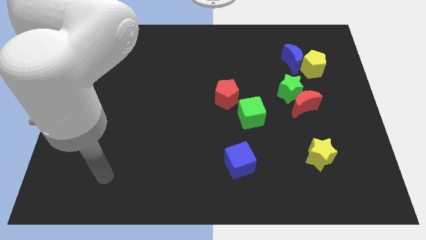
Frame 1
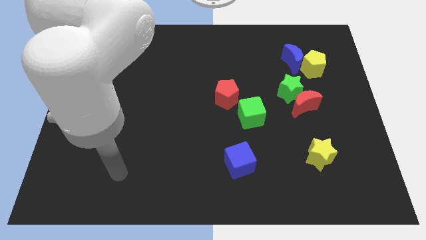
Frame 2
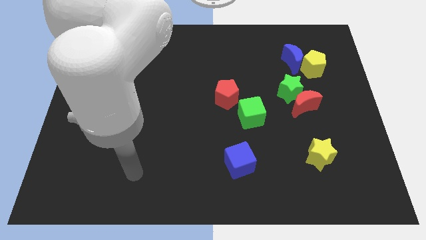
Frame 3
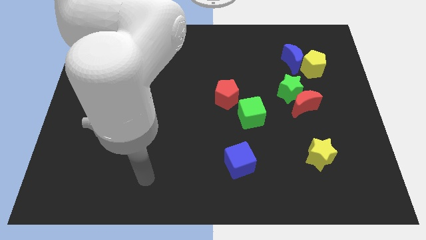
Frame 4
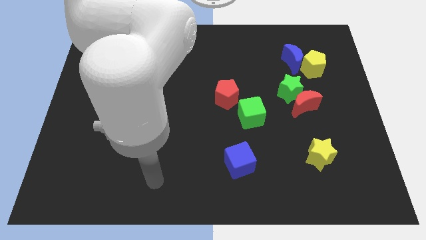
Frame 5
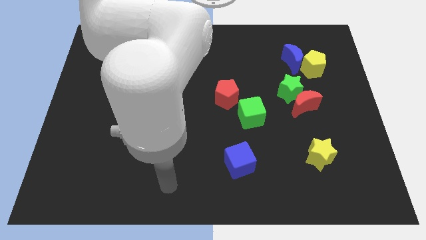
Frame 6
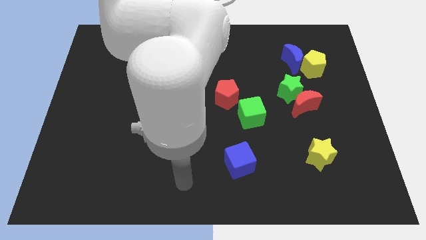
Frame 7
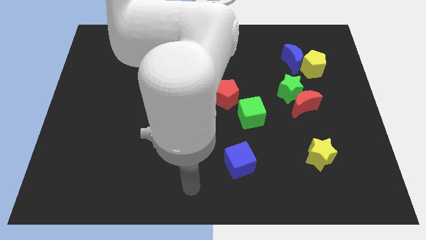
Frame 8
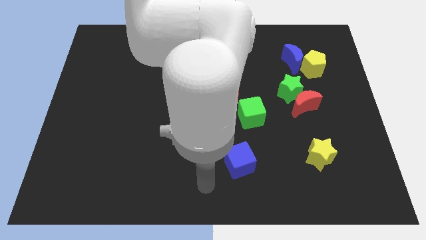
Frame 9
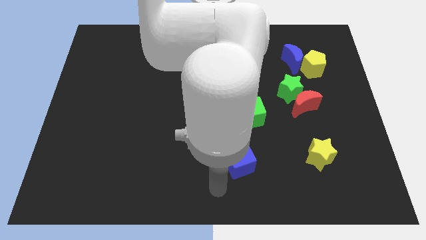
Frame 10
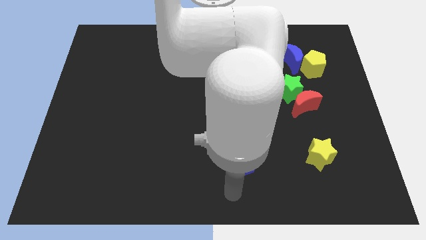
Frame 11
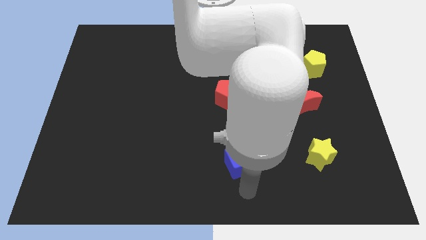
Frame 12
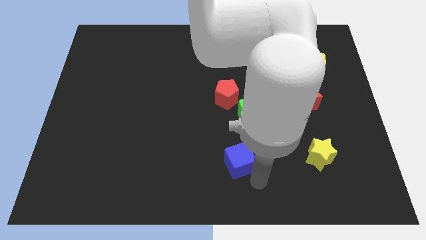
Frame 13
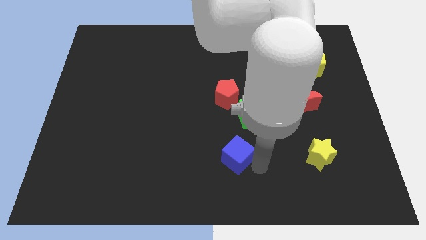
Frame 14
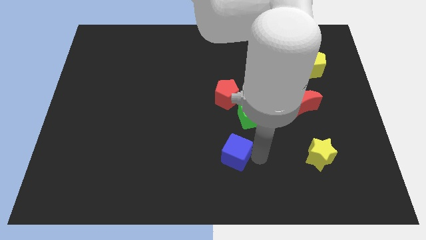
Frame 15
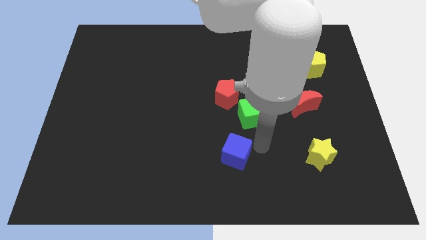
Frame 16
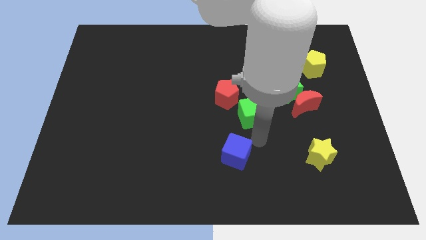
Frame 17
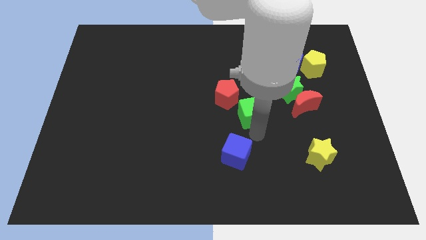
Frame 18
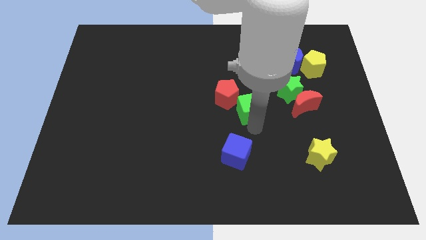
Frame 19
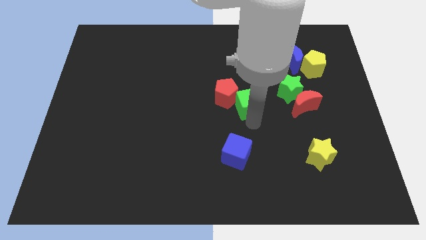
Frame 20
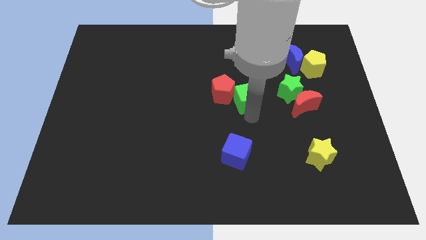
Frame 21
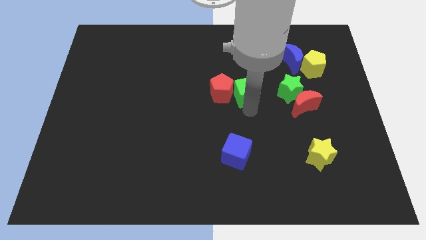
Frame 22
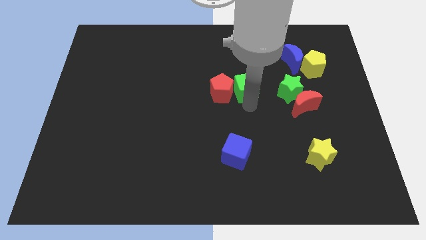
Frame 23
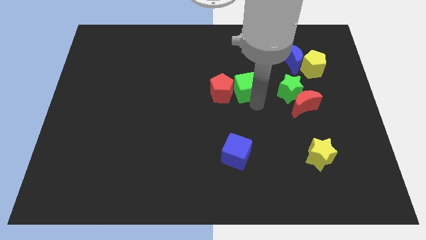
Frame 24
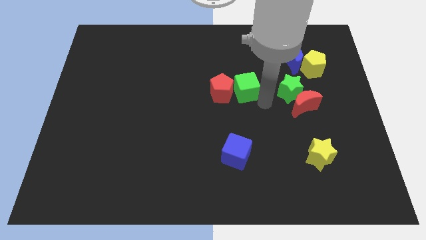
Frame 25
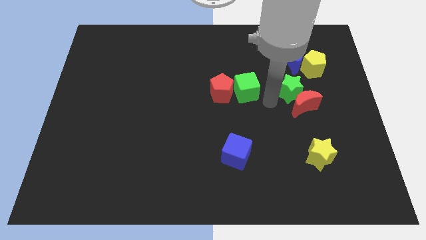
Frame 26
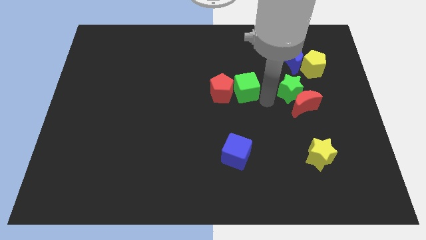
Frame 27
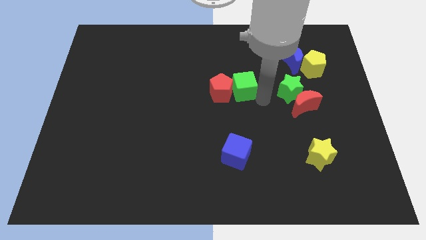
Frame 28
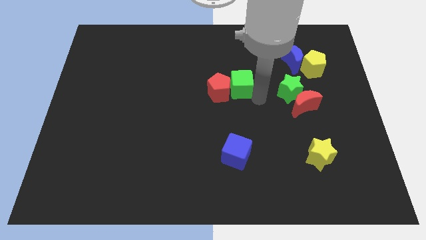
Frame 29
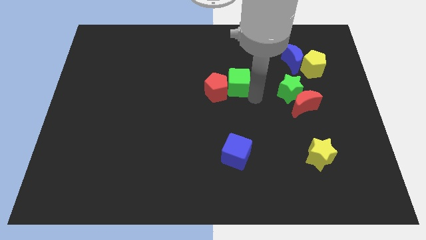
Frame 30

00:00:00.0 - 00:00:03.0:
move the green cube a little bit upwards and then left

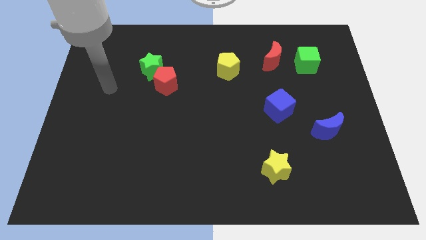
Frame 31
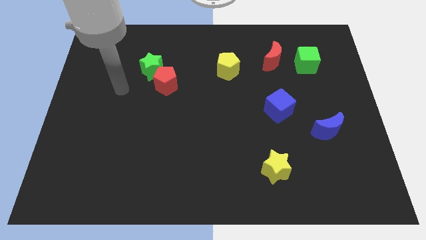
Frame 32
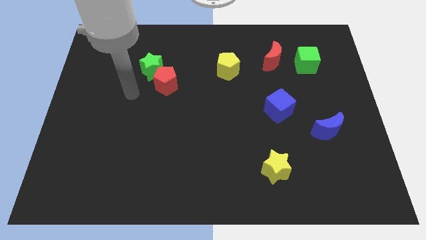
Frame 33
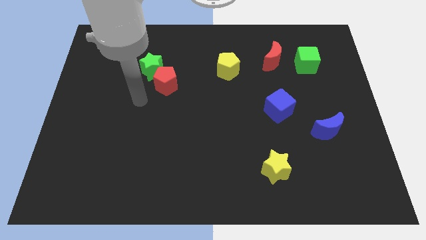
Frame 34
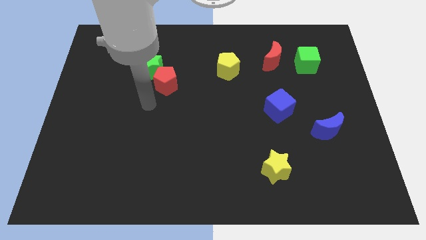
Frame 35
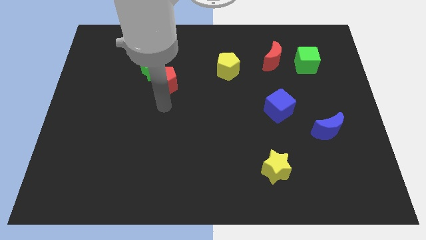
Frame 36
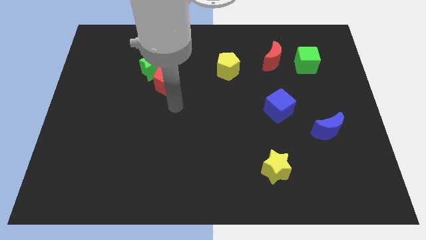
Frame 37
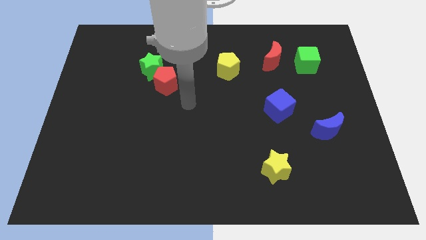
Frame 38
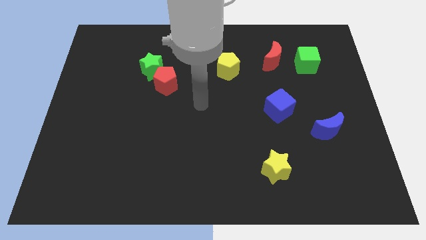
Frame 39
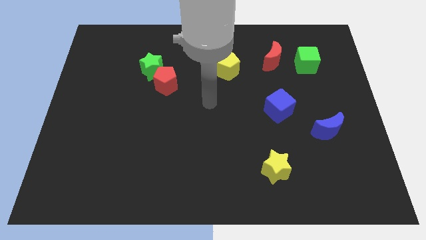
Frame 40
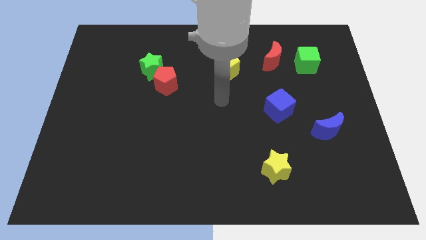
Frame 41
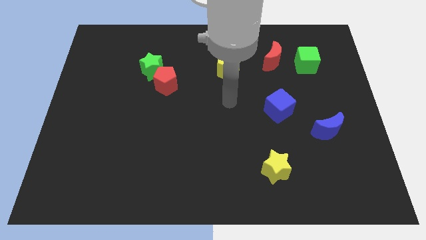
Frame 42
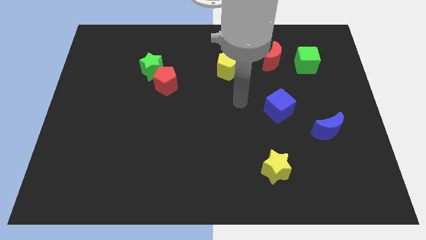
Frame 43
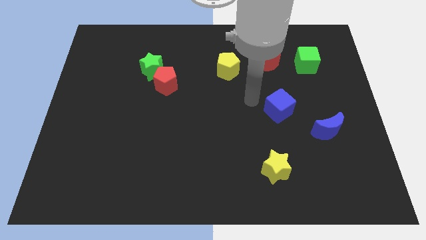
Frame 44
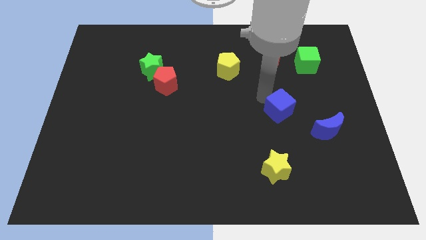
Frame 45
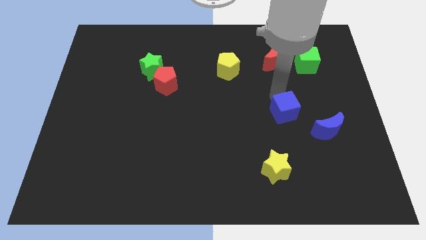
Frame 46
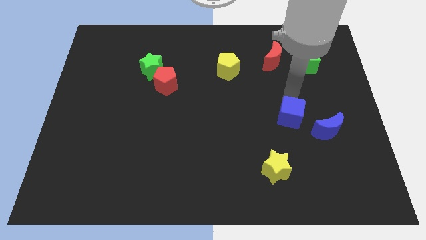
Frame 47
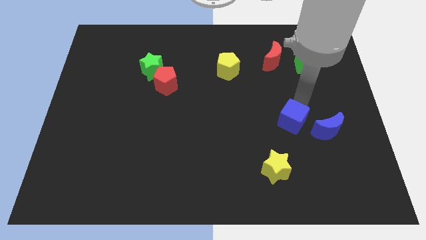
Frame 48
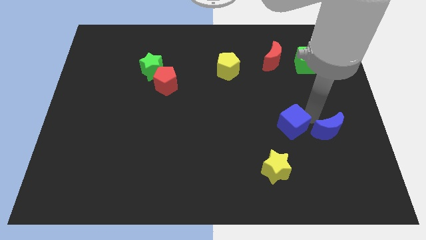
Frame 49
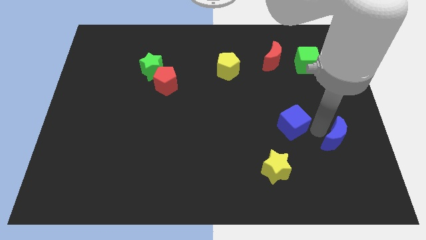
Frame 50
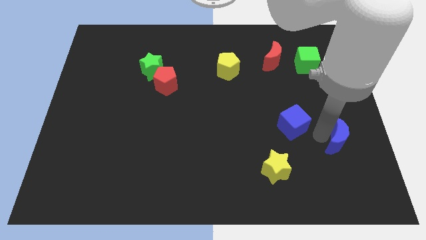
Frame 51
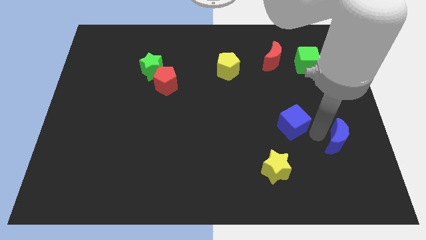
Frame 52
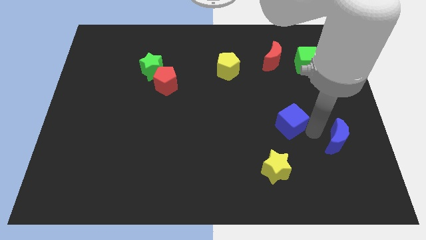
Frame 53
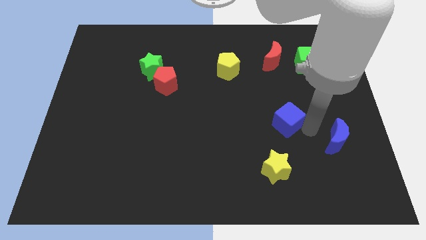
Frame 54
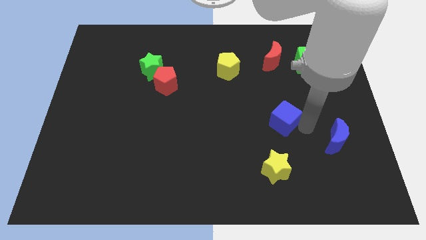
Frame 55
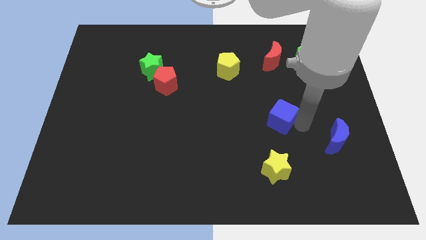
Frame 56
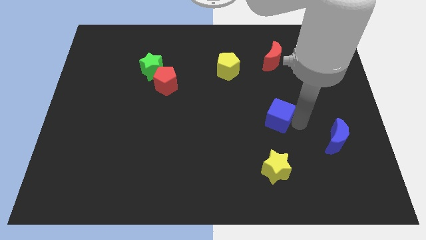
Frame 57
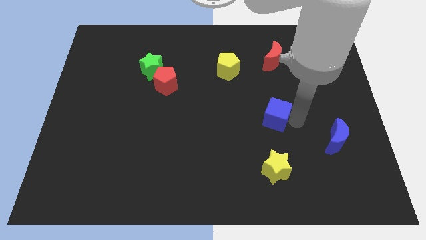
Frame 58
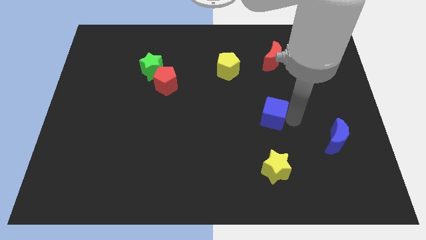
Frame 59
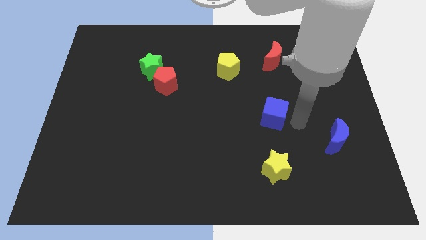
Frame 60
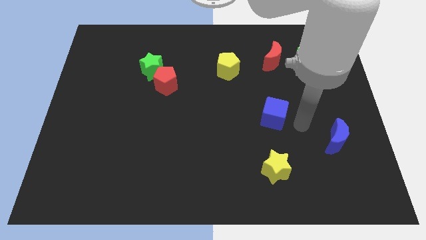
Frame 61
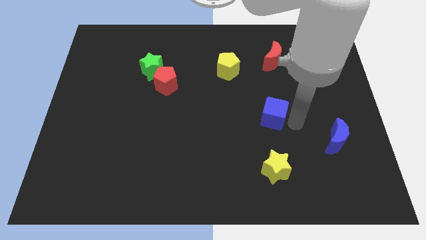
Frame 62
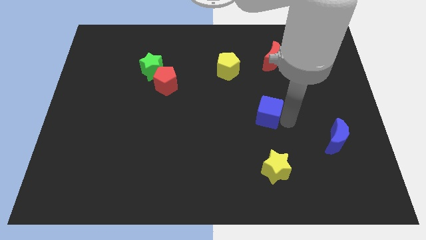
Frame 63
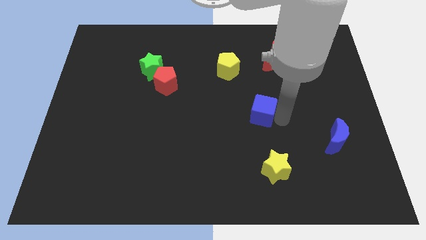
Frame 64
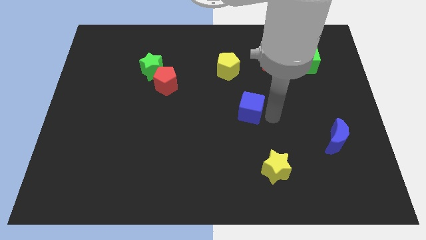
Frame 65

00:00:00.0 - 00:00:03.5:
move the blue cube slightly to the left

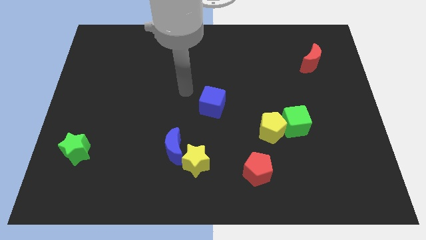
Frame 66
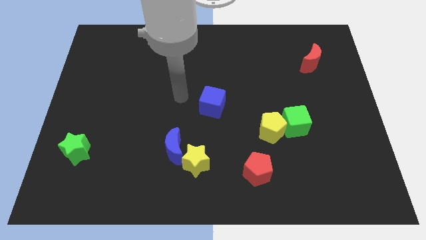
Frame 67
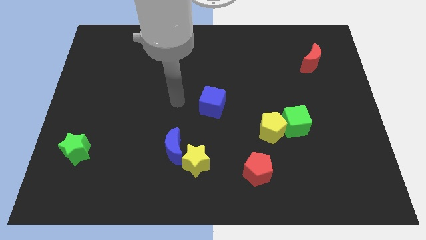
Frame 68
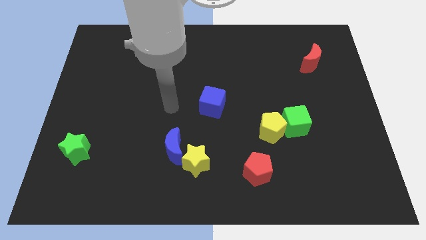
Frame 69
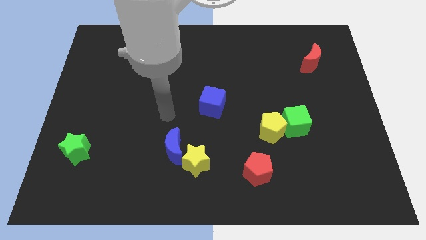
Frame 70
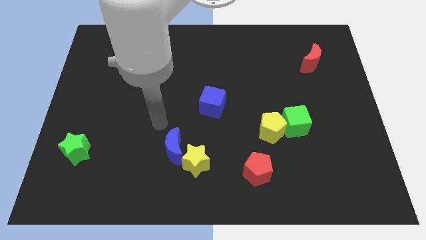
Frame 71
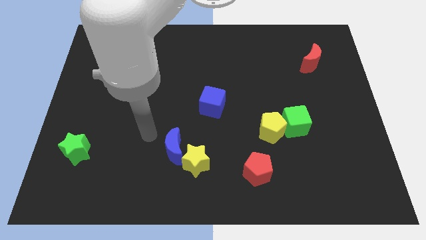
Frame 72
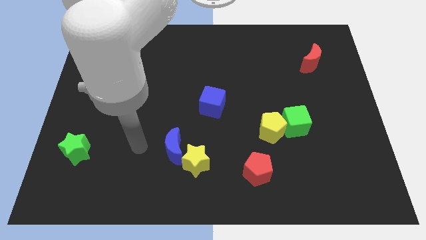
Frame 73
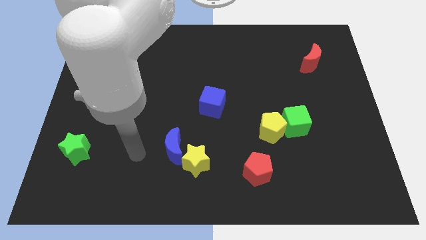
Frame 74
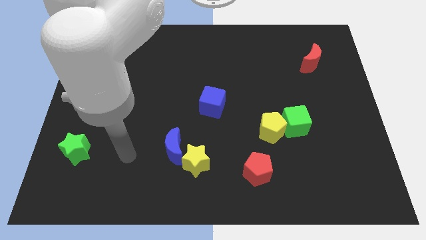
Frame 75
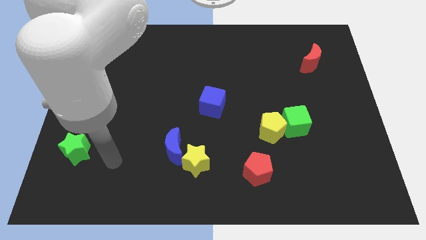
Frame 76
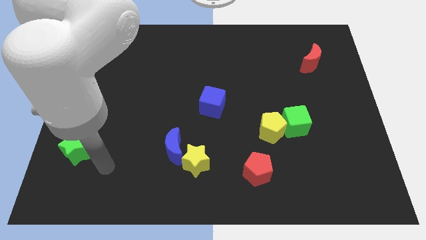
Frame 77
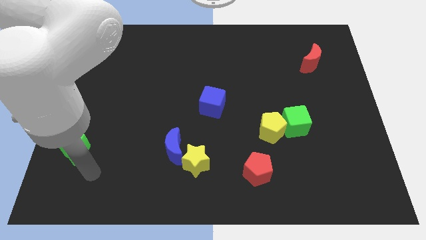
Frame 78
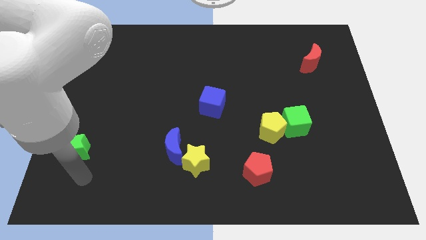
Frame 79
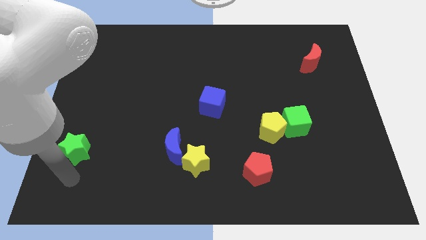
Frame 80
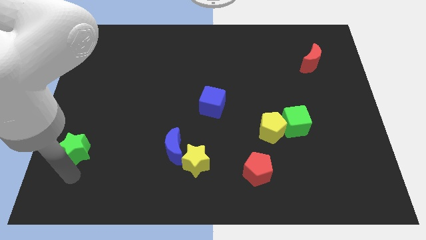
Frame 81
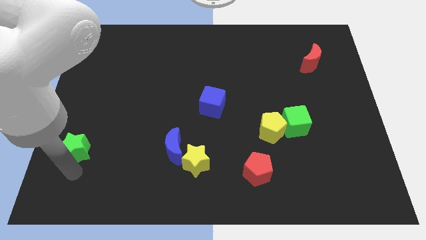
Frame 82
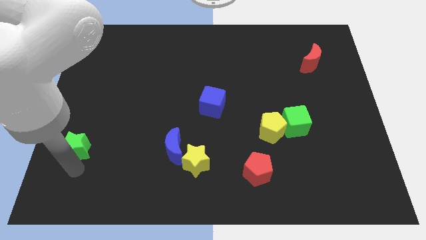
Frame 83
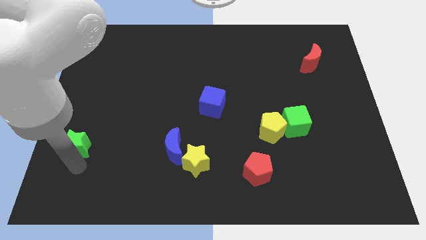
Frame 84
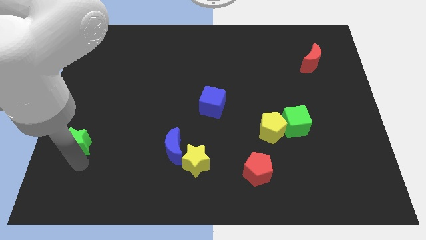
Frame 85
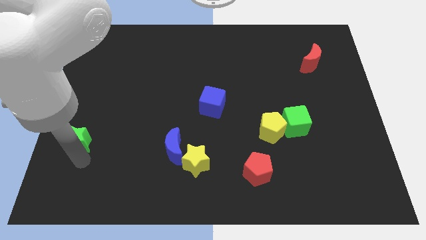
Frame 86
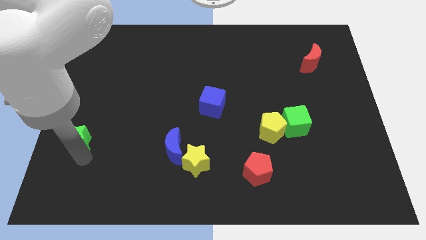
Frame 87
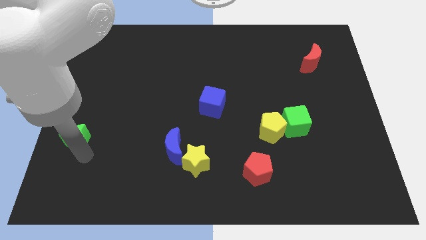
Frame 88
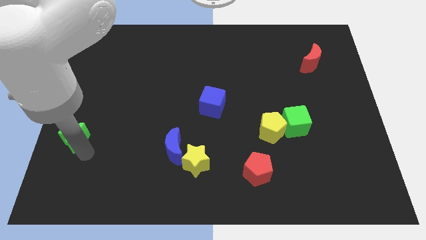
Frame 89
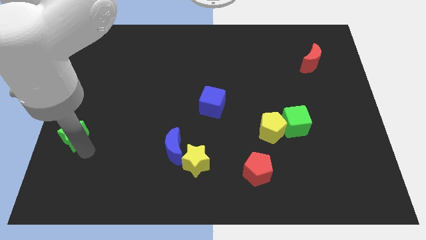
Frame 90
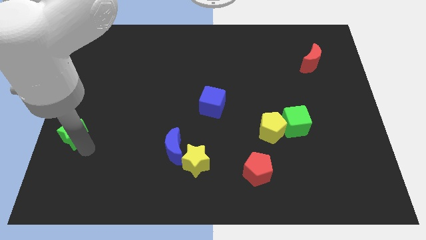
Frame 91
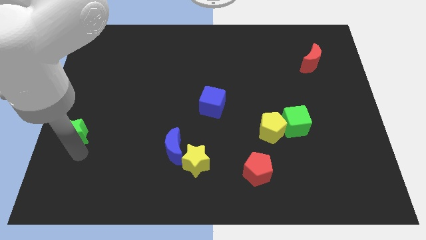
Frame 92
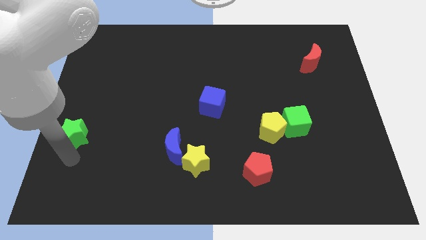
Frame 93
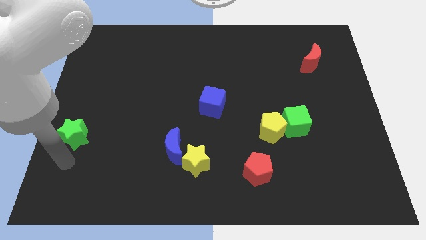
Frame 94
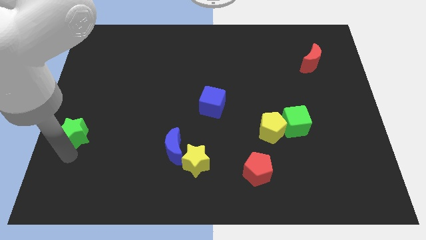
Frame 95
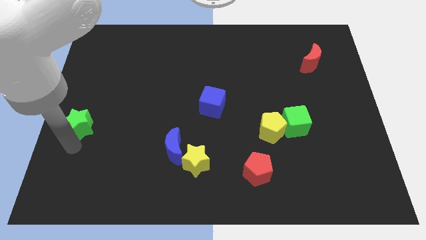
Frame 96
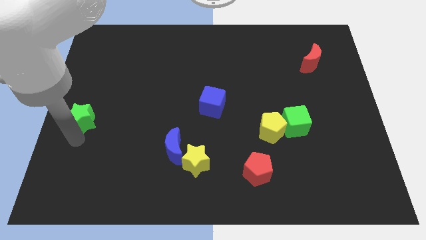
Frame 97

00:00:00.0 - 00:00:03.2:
push the green star upwards a bit
